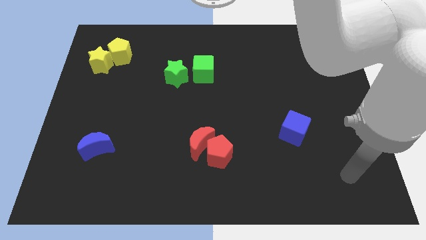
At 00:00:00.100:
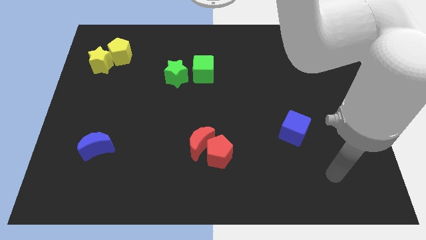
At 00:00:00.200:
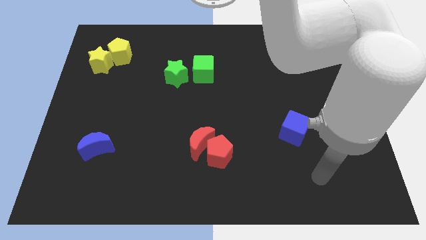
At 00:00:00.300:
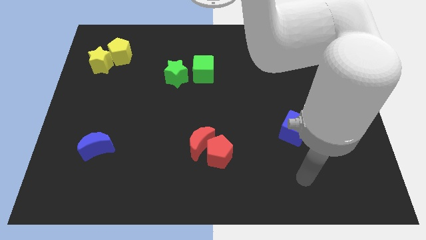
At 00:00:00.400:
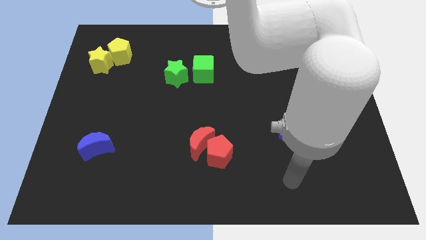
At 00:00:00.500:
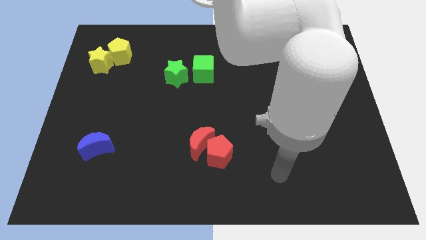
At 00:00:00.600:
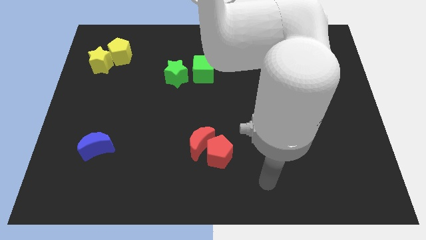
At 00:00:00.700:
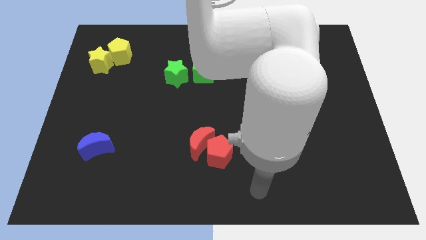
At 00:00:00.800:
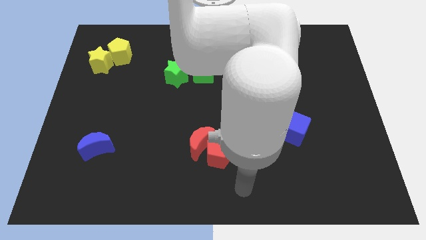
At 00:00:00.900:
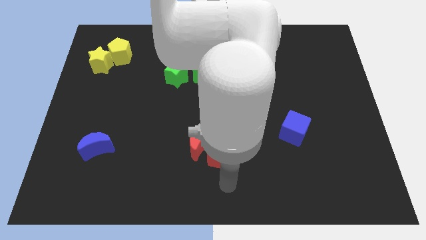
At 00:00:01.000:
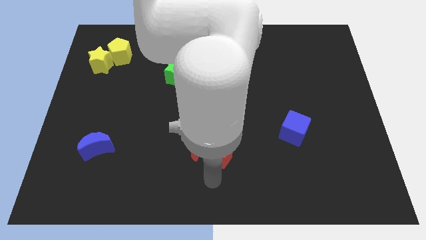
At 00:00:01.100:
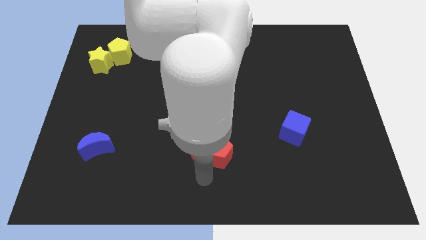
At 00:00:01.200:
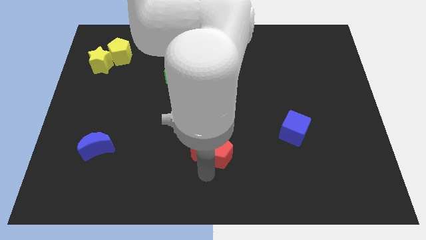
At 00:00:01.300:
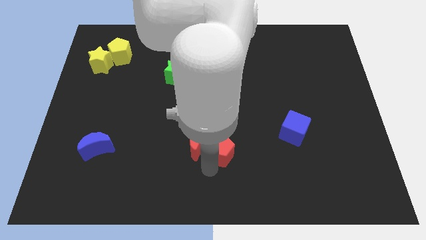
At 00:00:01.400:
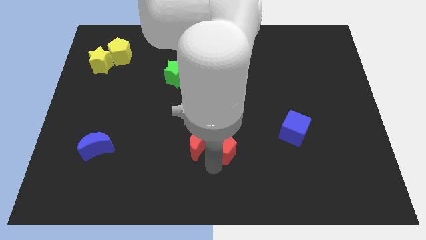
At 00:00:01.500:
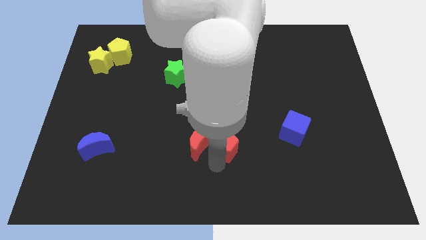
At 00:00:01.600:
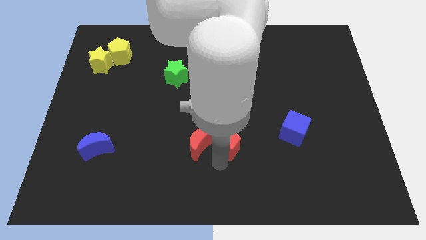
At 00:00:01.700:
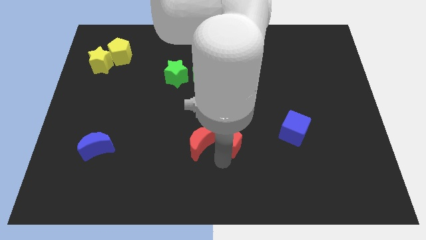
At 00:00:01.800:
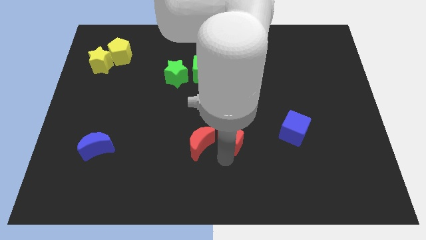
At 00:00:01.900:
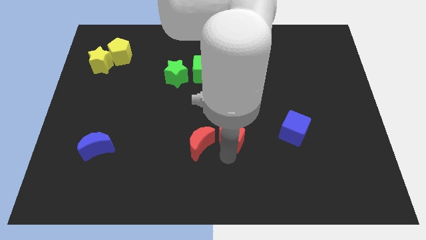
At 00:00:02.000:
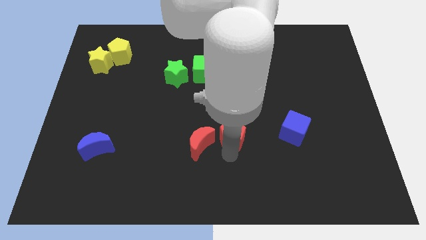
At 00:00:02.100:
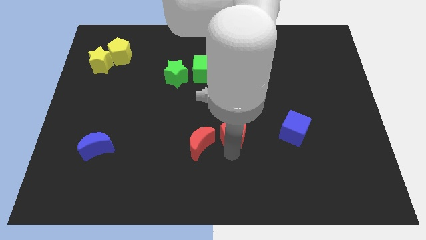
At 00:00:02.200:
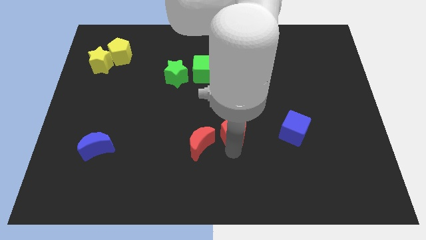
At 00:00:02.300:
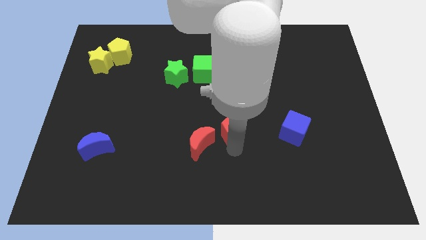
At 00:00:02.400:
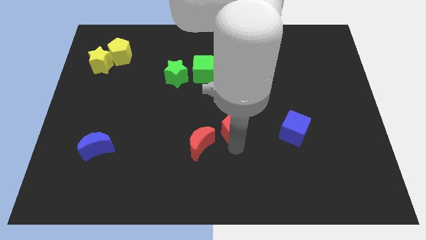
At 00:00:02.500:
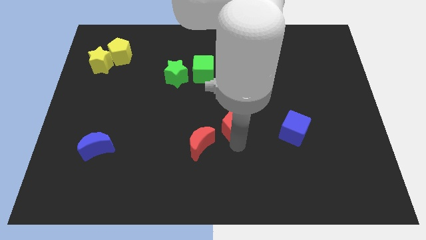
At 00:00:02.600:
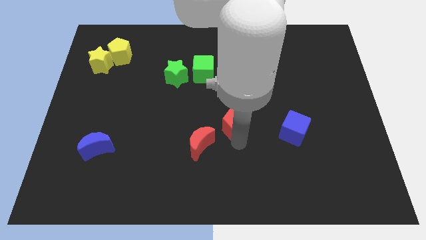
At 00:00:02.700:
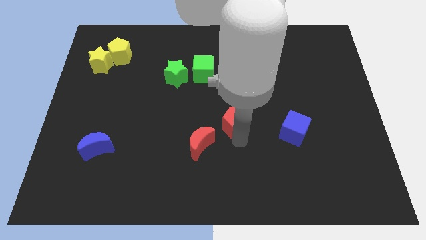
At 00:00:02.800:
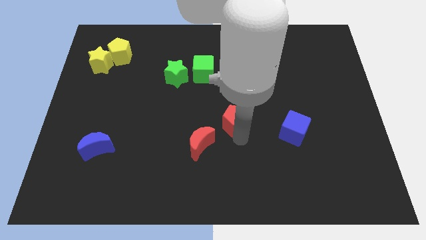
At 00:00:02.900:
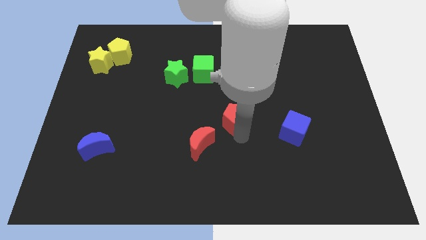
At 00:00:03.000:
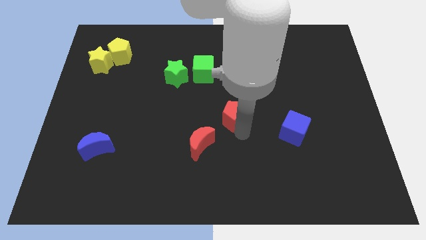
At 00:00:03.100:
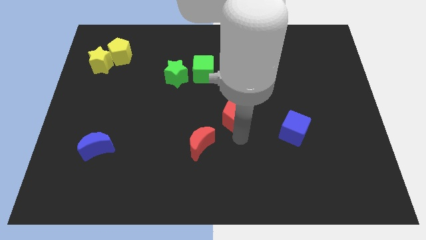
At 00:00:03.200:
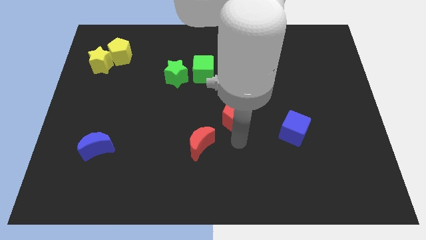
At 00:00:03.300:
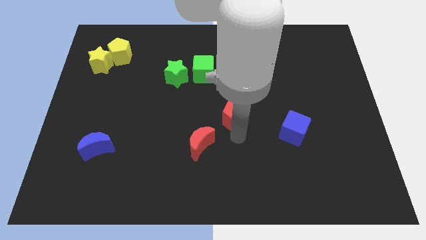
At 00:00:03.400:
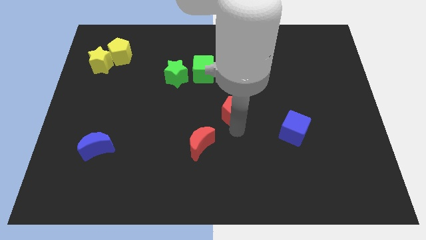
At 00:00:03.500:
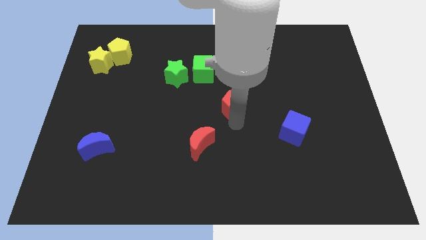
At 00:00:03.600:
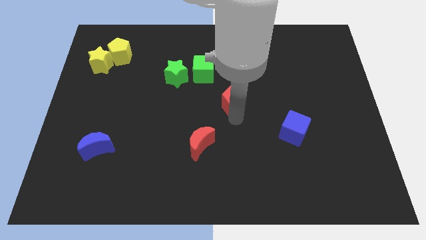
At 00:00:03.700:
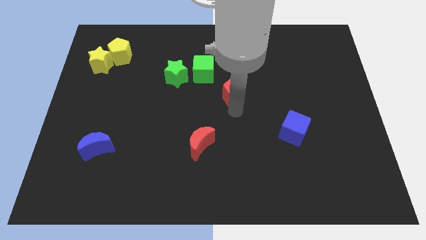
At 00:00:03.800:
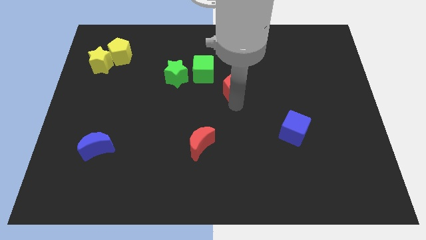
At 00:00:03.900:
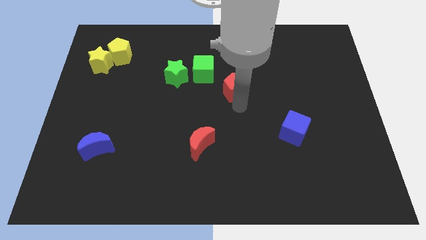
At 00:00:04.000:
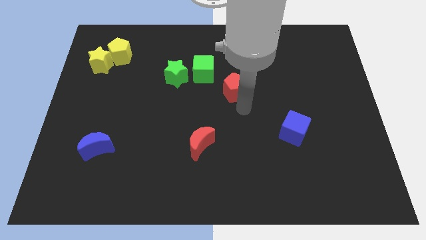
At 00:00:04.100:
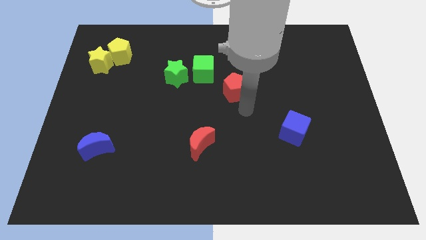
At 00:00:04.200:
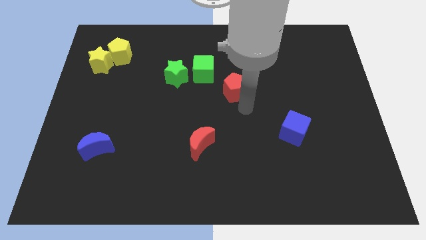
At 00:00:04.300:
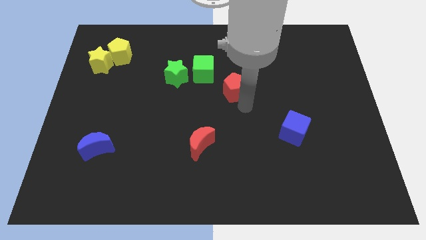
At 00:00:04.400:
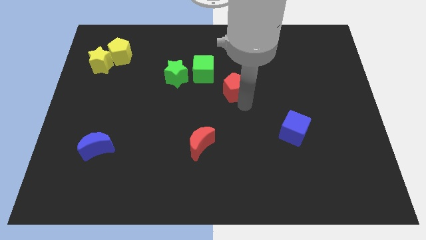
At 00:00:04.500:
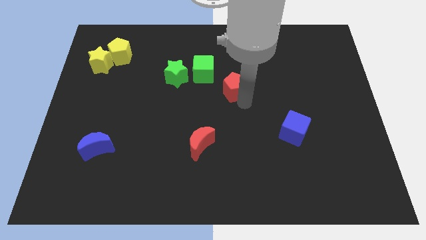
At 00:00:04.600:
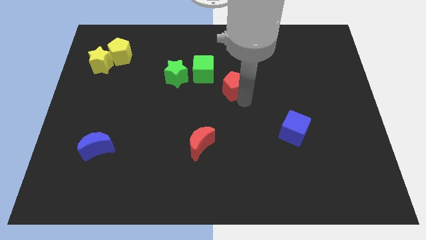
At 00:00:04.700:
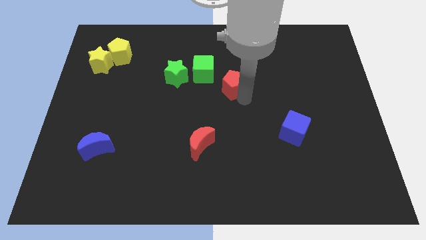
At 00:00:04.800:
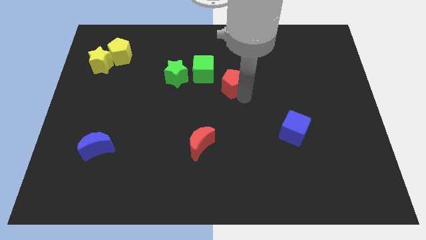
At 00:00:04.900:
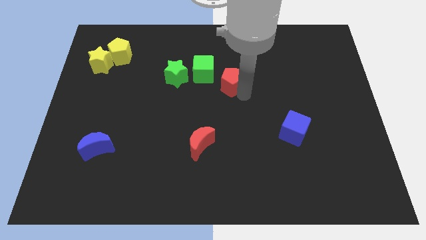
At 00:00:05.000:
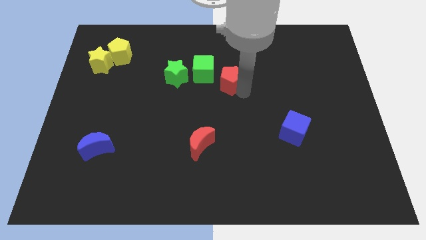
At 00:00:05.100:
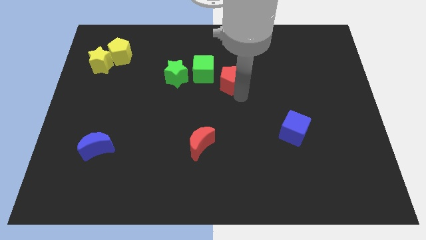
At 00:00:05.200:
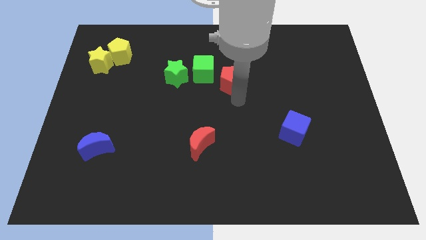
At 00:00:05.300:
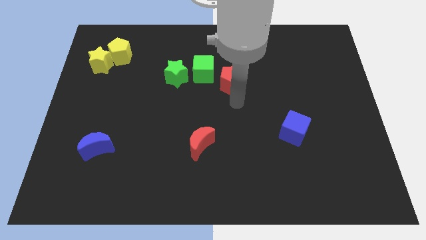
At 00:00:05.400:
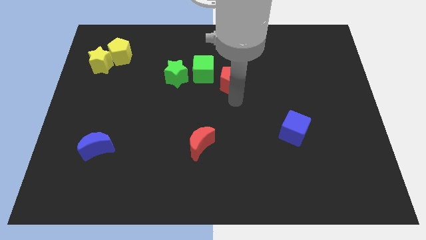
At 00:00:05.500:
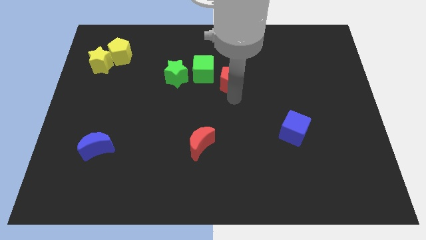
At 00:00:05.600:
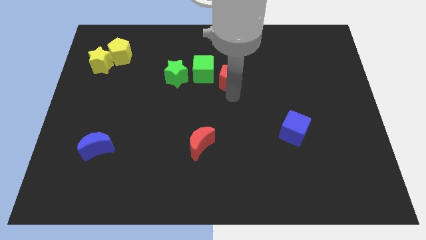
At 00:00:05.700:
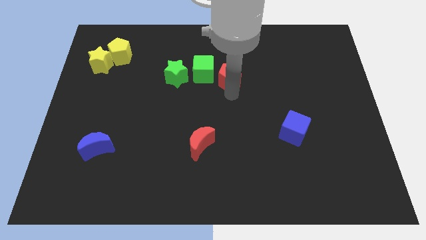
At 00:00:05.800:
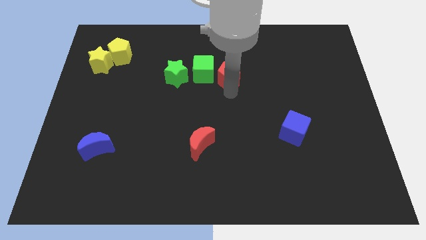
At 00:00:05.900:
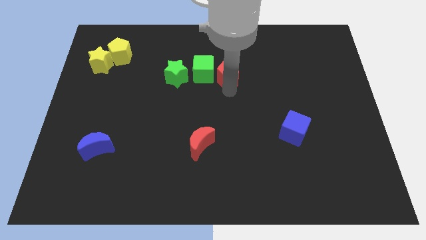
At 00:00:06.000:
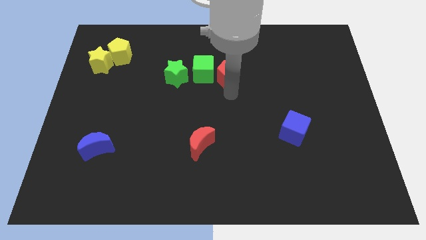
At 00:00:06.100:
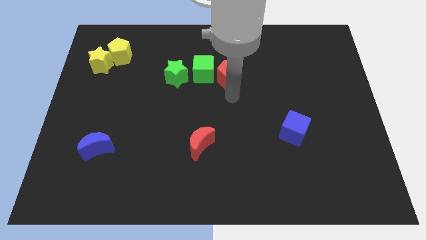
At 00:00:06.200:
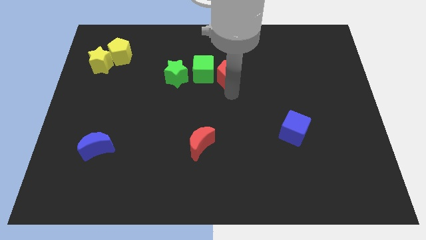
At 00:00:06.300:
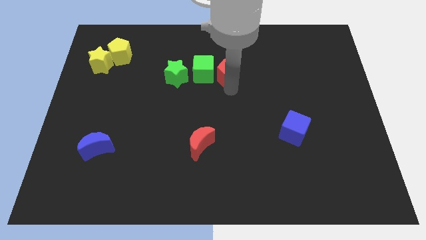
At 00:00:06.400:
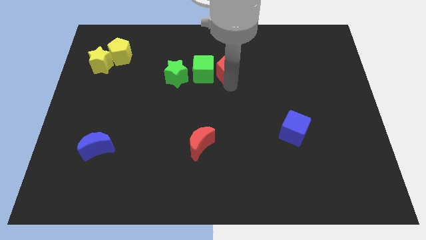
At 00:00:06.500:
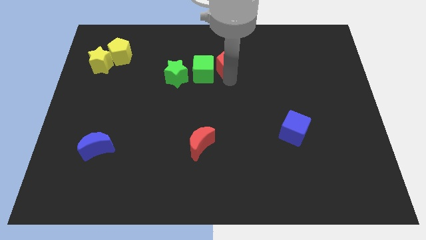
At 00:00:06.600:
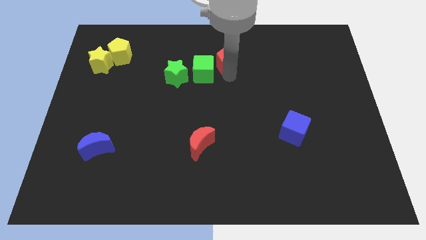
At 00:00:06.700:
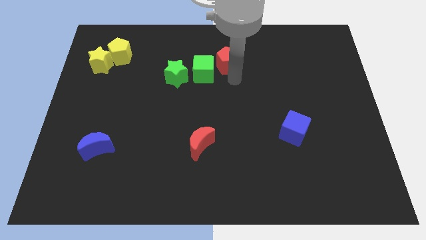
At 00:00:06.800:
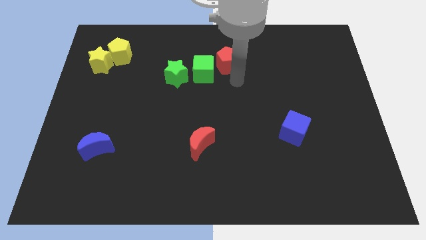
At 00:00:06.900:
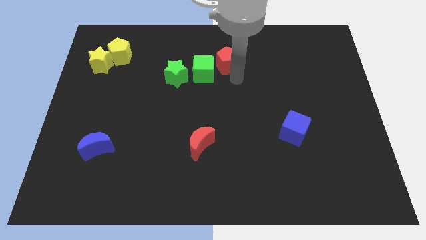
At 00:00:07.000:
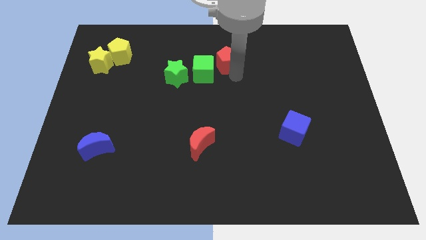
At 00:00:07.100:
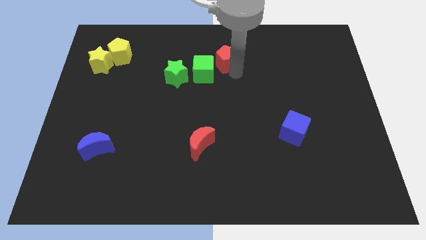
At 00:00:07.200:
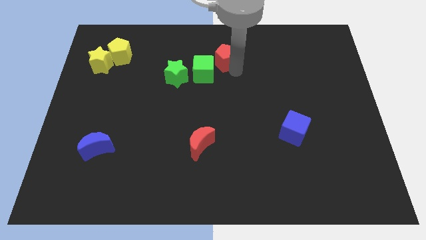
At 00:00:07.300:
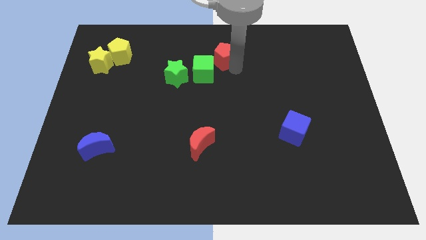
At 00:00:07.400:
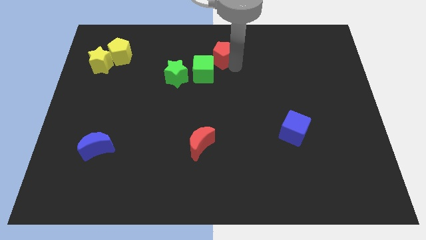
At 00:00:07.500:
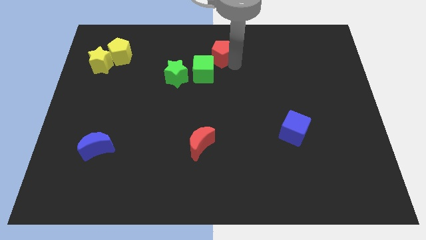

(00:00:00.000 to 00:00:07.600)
push the red pentagon to the top side
